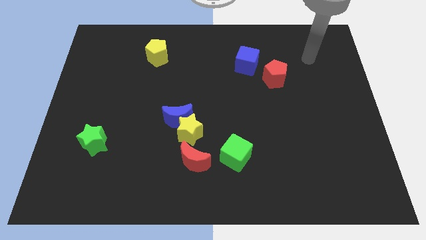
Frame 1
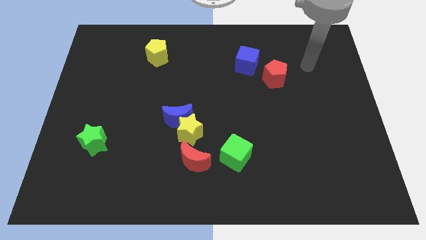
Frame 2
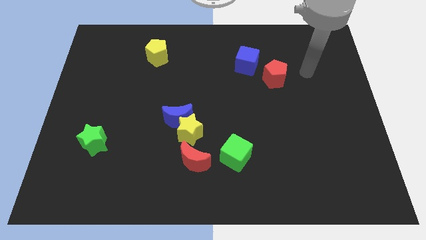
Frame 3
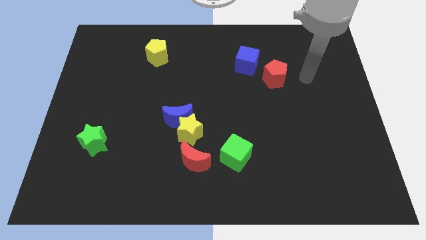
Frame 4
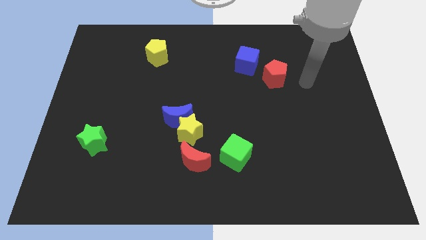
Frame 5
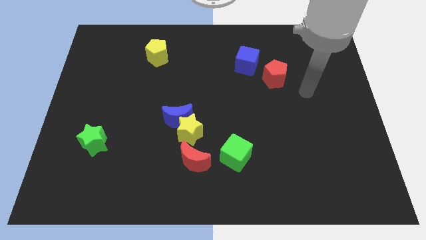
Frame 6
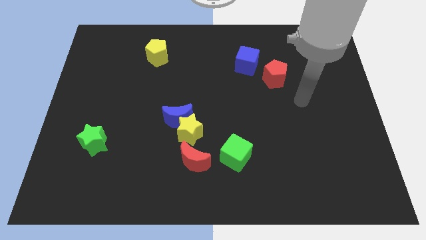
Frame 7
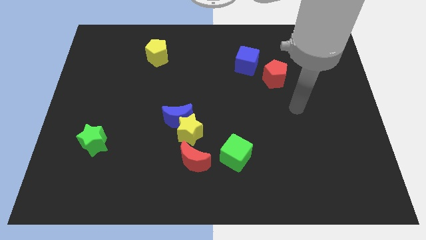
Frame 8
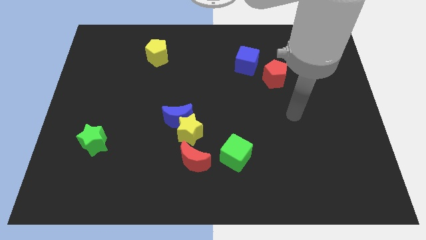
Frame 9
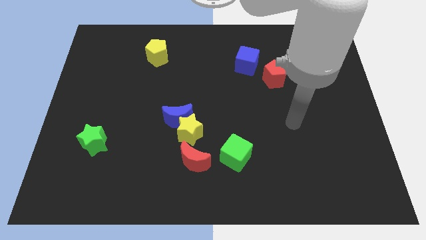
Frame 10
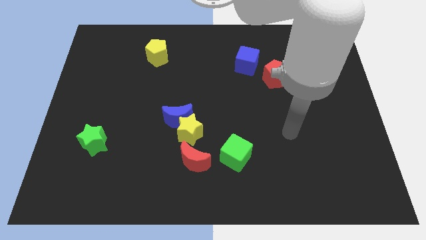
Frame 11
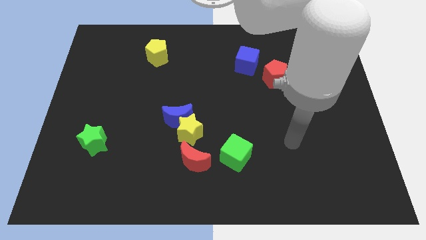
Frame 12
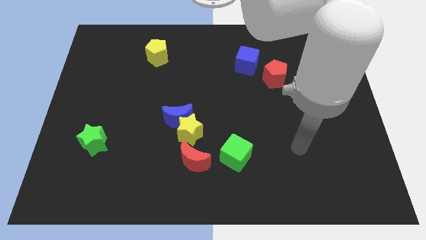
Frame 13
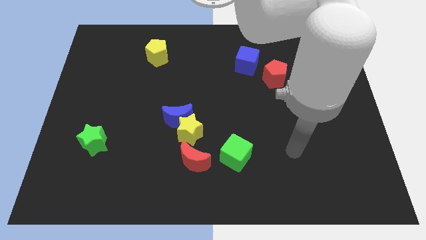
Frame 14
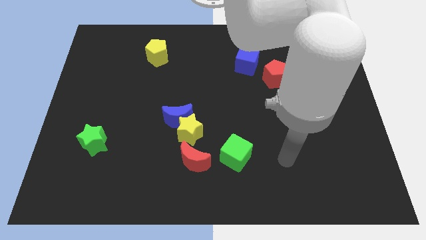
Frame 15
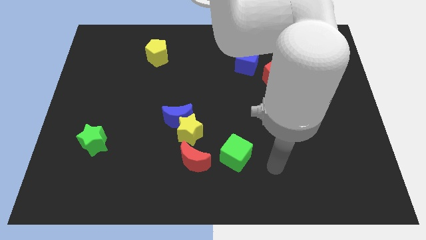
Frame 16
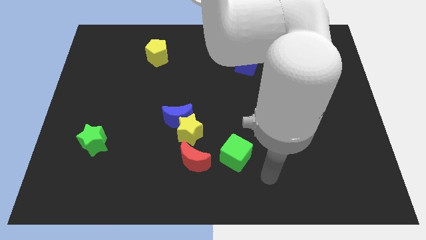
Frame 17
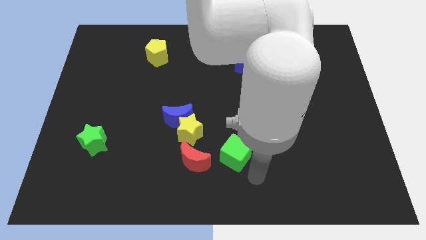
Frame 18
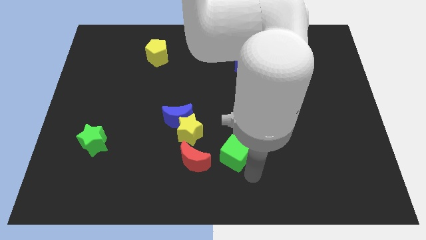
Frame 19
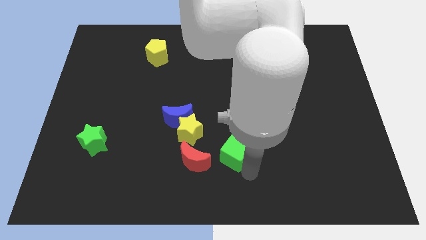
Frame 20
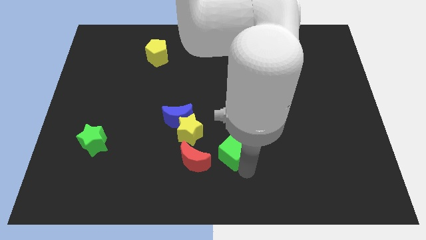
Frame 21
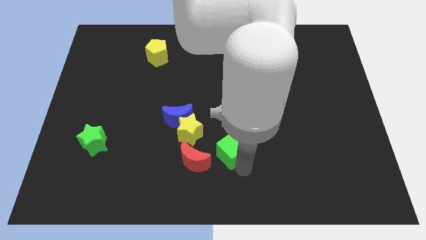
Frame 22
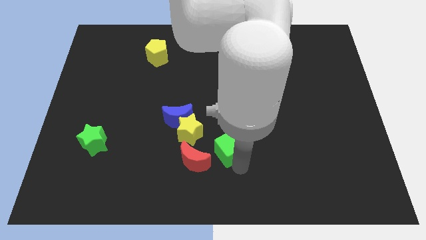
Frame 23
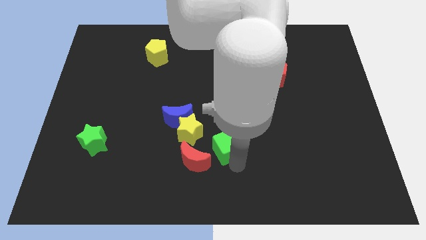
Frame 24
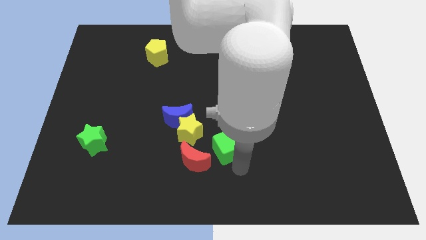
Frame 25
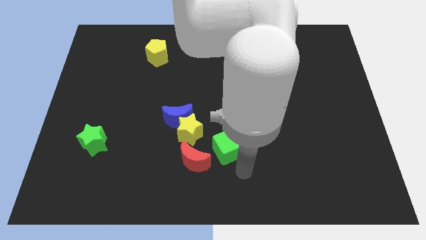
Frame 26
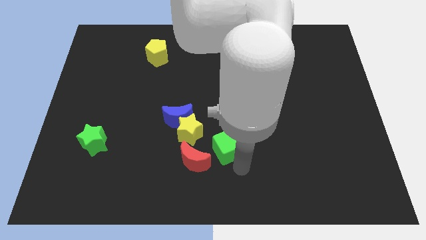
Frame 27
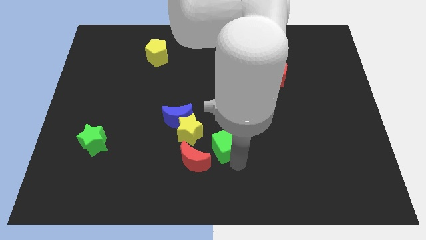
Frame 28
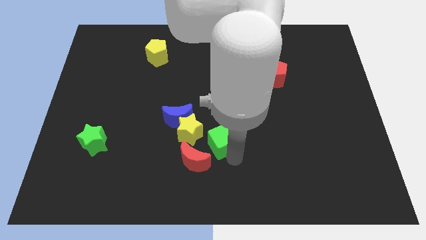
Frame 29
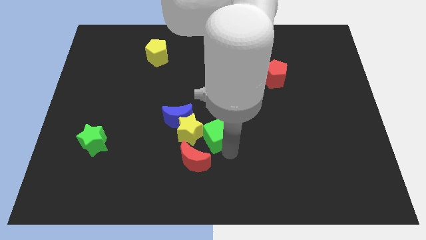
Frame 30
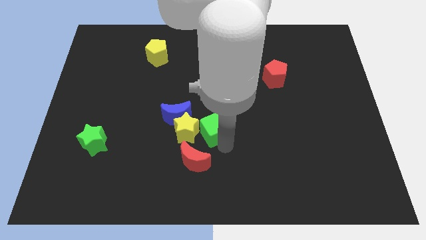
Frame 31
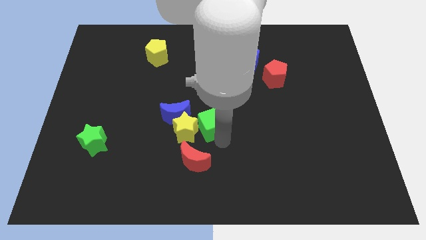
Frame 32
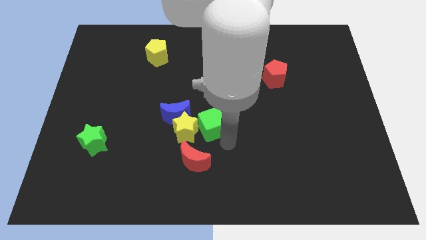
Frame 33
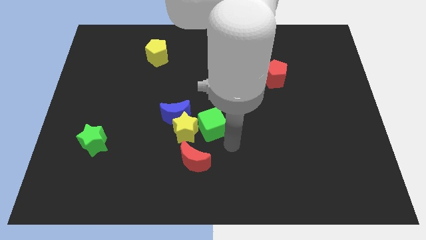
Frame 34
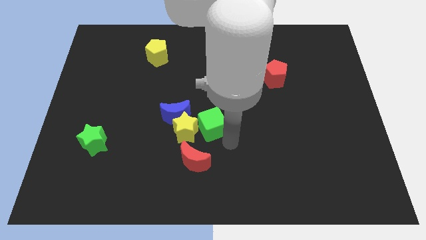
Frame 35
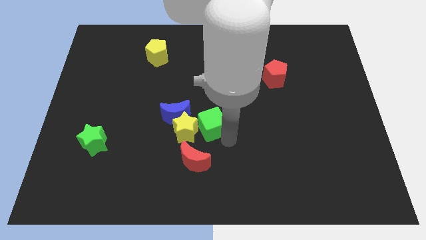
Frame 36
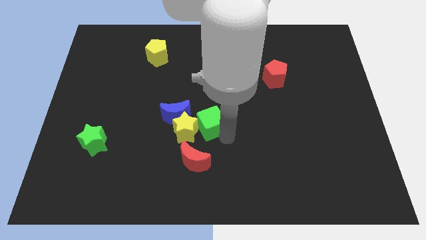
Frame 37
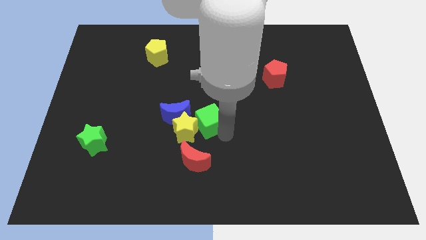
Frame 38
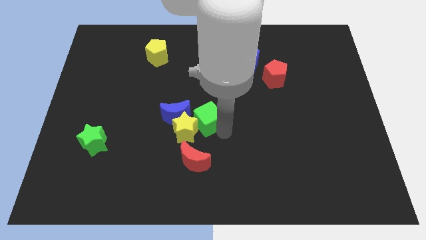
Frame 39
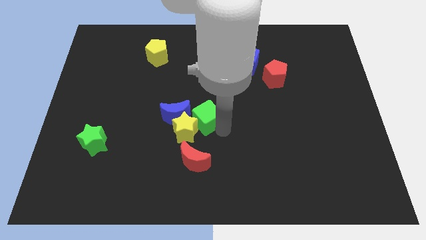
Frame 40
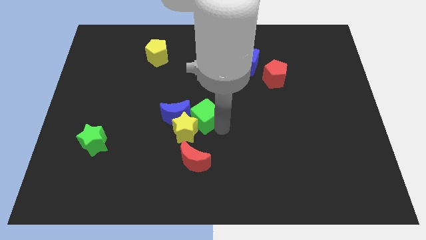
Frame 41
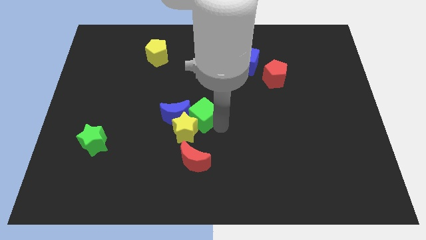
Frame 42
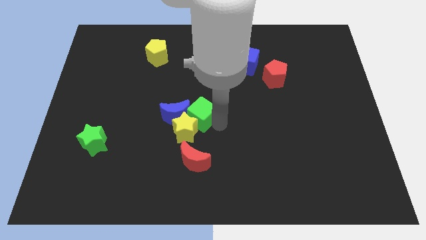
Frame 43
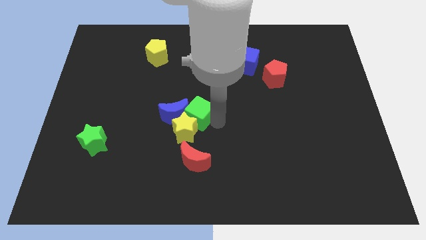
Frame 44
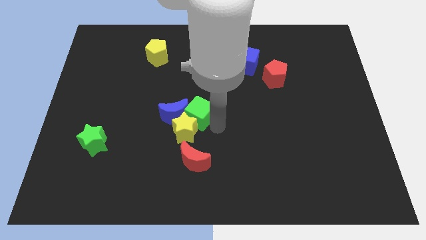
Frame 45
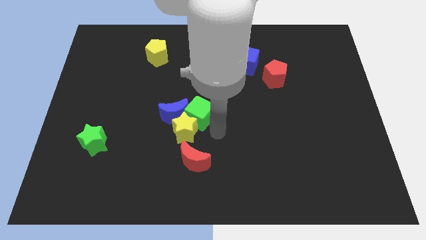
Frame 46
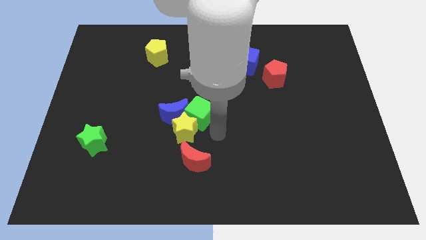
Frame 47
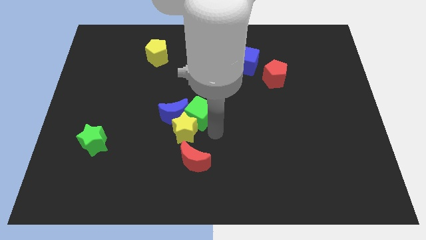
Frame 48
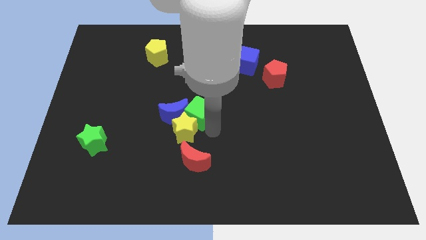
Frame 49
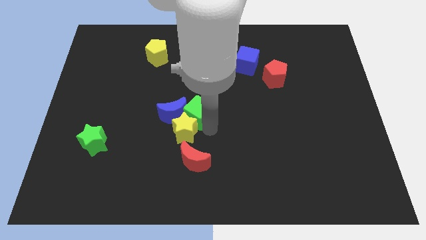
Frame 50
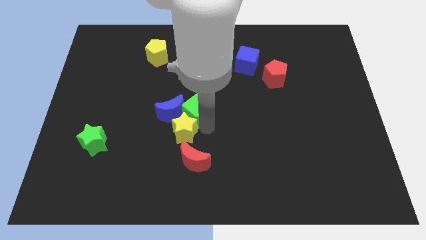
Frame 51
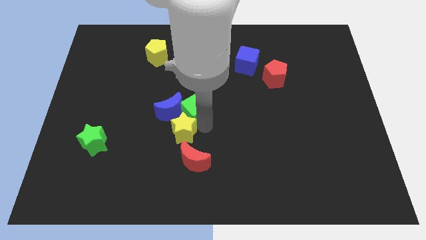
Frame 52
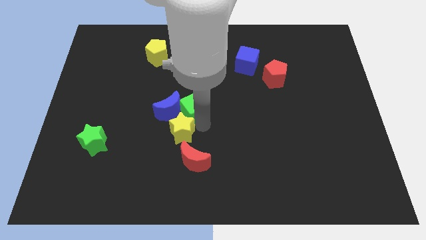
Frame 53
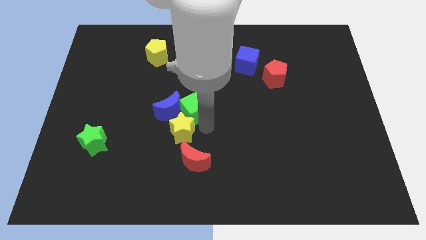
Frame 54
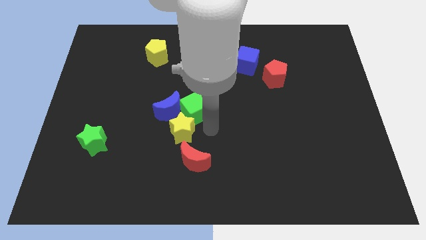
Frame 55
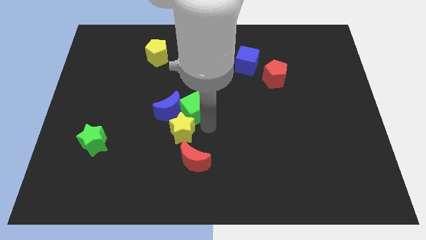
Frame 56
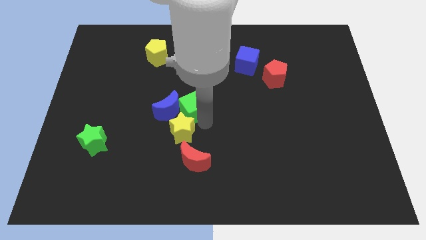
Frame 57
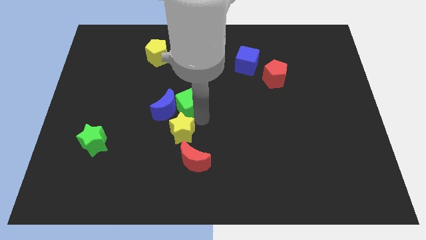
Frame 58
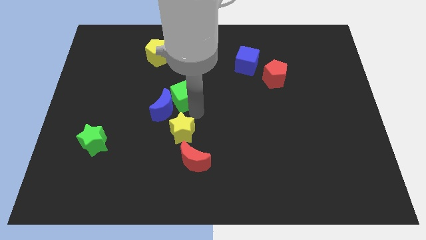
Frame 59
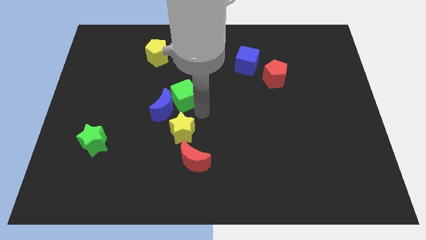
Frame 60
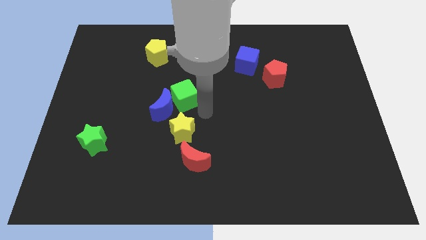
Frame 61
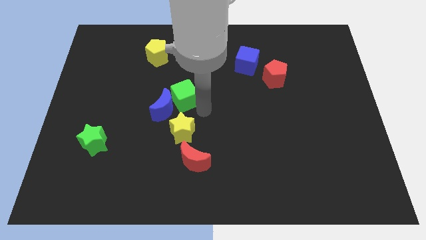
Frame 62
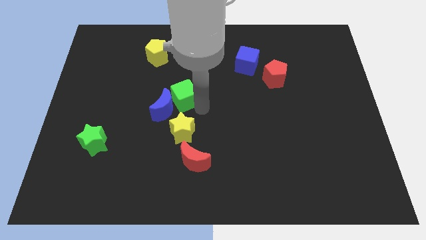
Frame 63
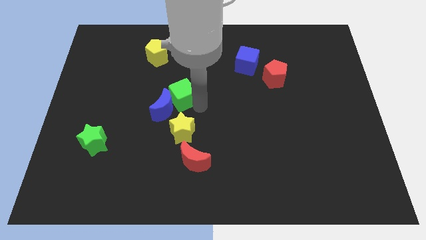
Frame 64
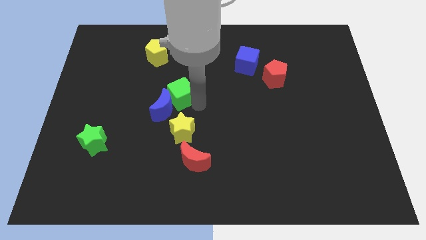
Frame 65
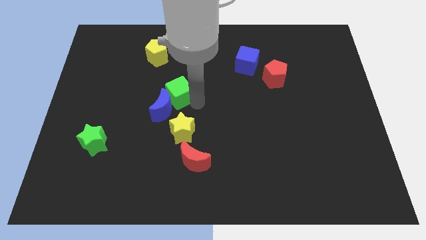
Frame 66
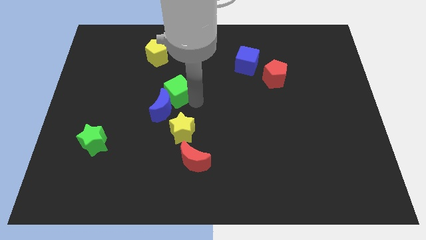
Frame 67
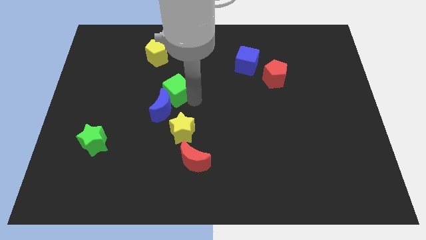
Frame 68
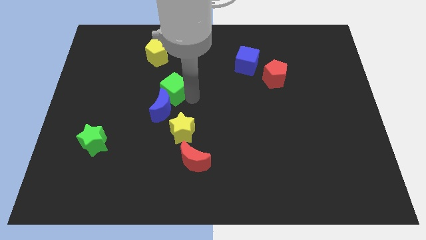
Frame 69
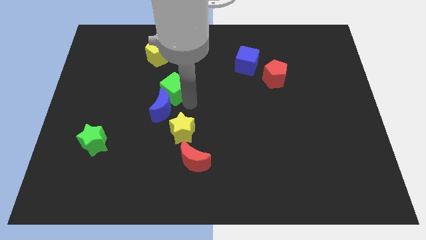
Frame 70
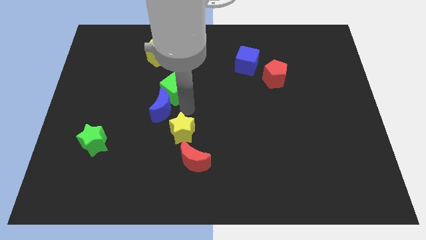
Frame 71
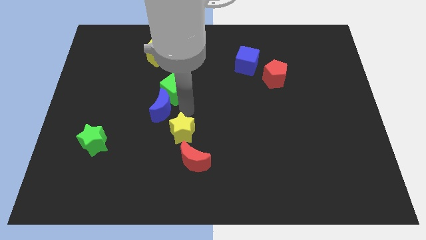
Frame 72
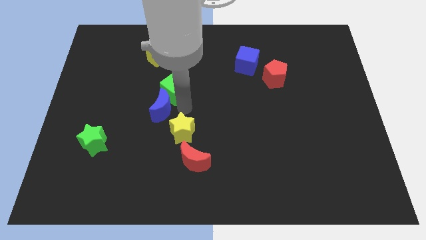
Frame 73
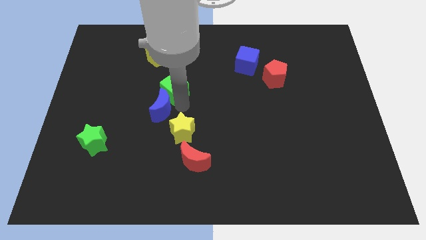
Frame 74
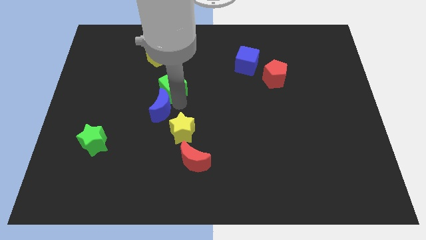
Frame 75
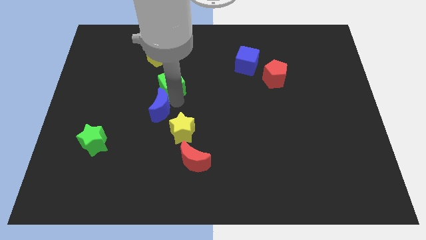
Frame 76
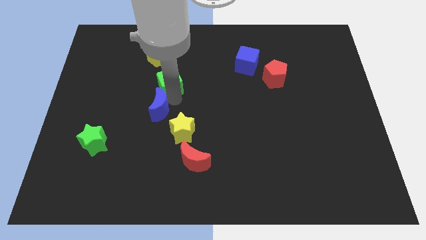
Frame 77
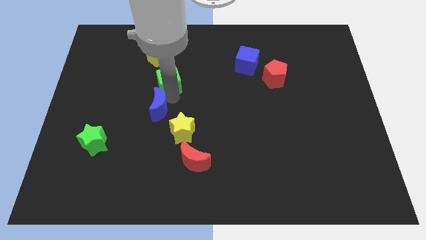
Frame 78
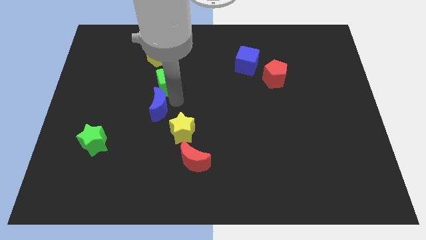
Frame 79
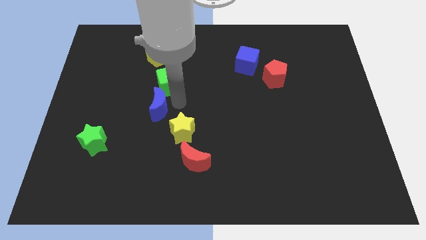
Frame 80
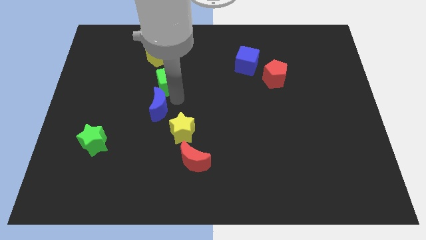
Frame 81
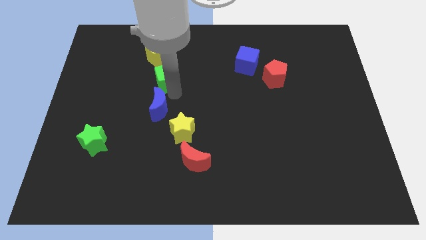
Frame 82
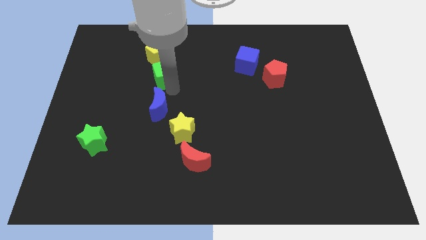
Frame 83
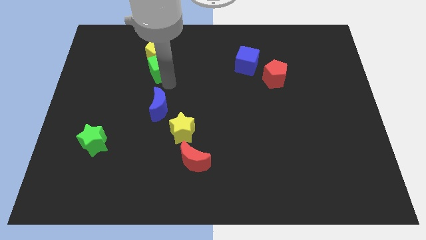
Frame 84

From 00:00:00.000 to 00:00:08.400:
put the green cube towards the yellow pentagon
